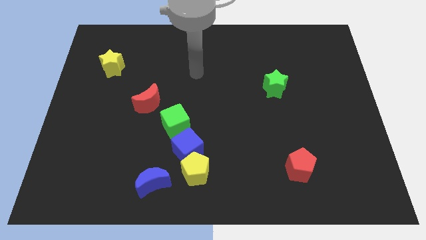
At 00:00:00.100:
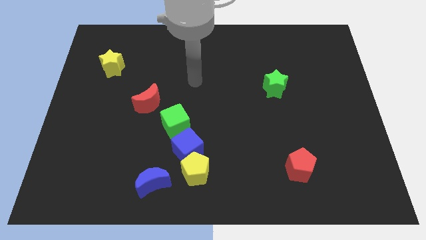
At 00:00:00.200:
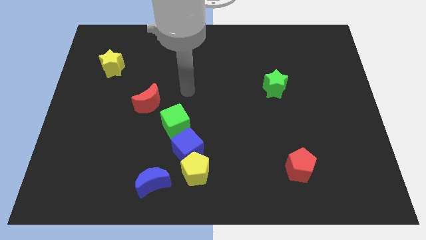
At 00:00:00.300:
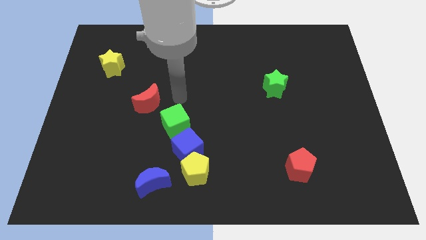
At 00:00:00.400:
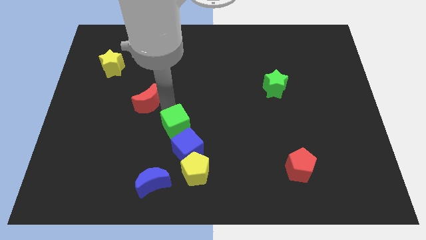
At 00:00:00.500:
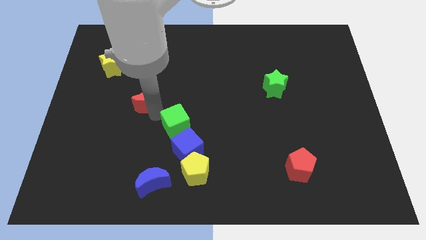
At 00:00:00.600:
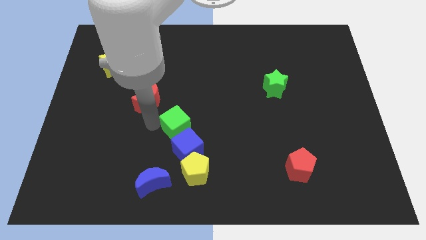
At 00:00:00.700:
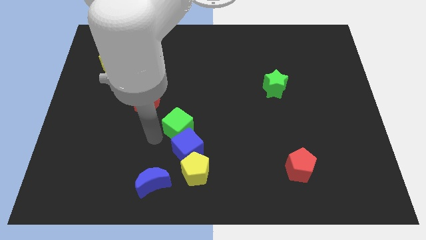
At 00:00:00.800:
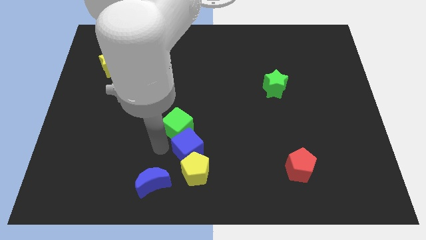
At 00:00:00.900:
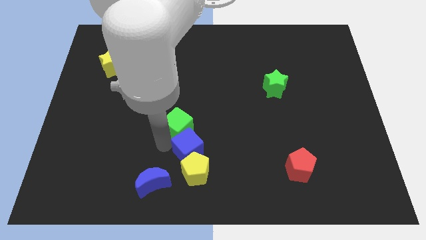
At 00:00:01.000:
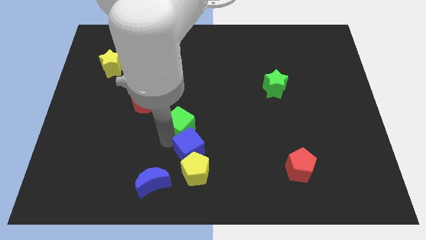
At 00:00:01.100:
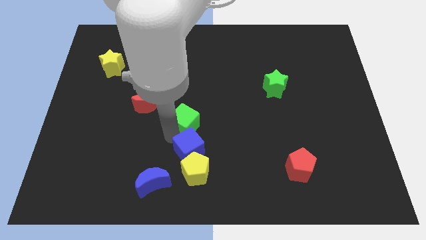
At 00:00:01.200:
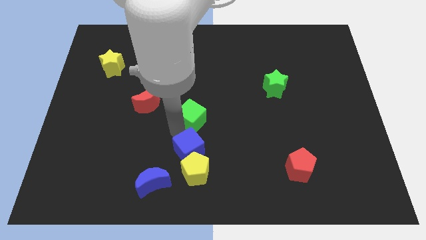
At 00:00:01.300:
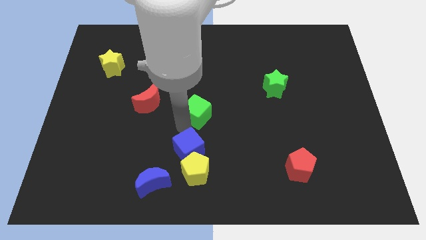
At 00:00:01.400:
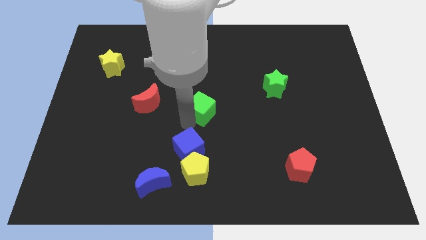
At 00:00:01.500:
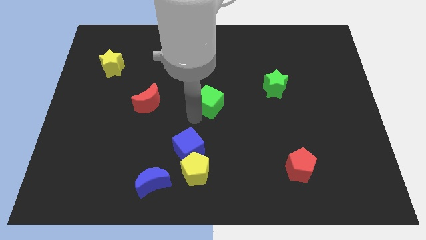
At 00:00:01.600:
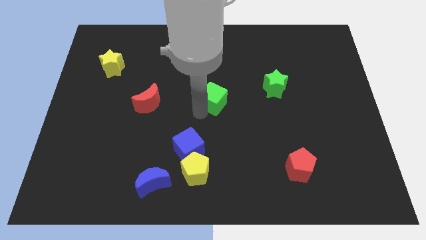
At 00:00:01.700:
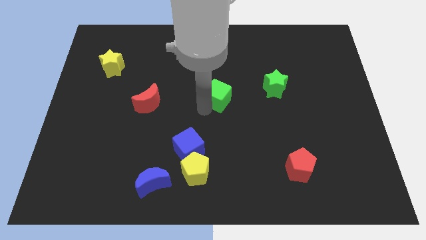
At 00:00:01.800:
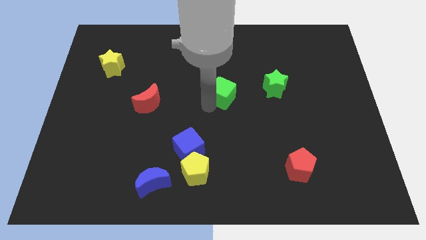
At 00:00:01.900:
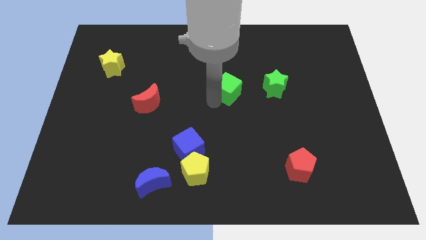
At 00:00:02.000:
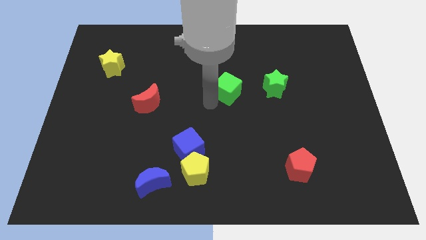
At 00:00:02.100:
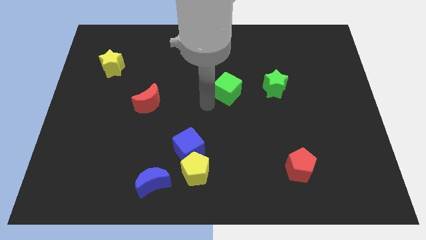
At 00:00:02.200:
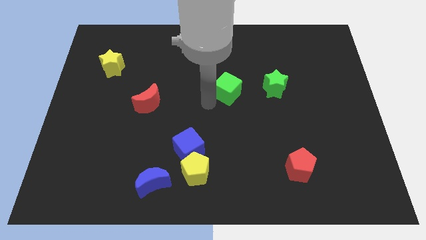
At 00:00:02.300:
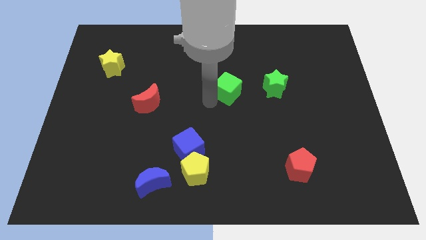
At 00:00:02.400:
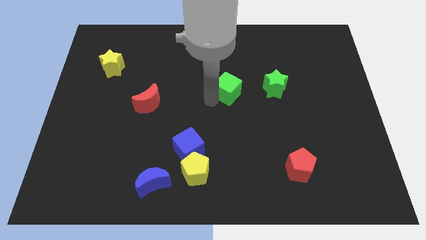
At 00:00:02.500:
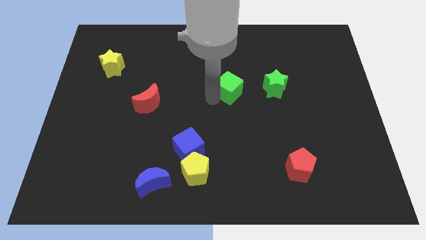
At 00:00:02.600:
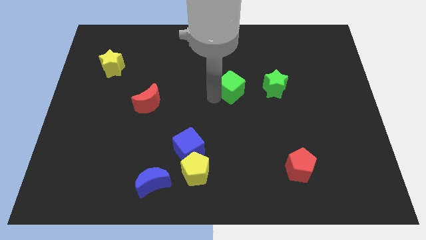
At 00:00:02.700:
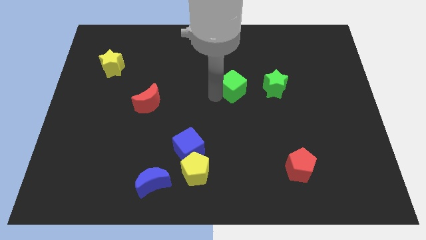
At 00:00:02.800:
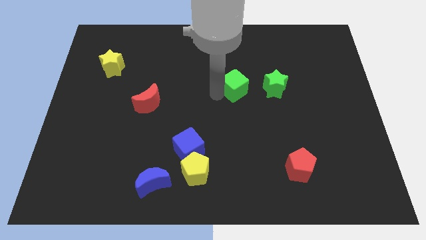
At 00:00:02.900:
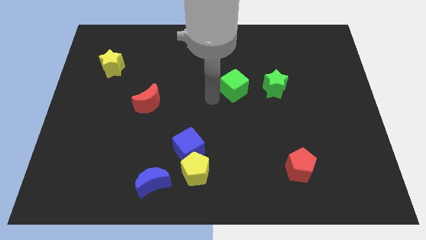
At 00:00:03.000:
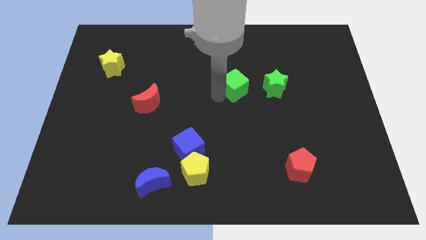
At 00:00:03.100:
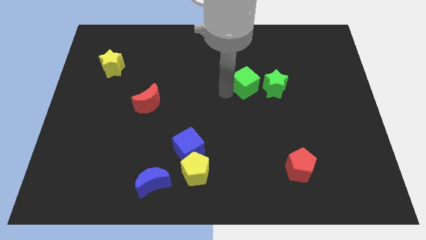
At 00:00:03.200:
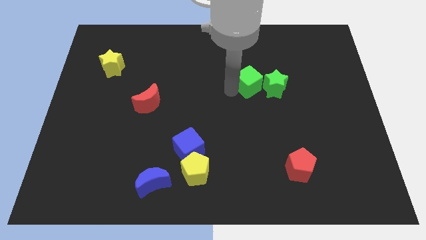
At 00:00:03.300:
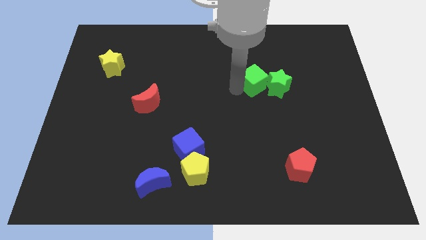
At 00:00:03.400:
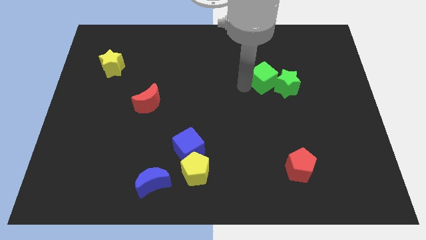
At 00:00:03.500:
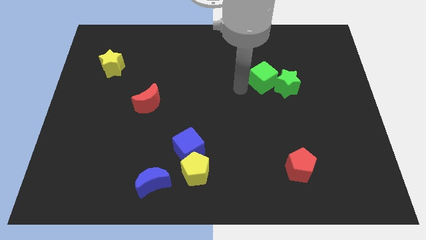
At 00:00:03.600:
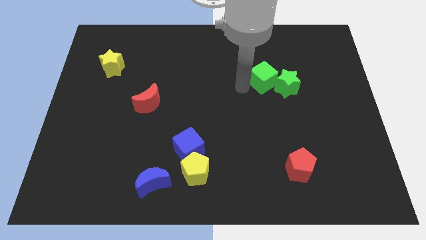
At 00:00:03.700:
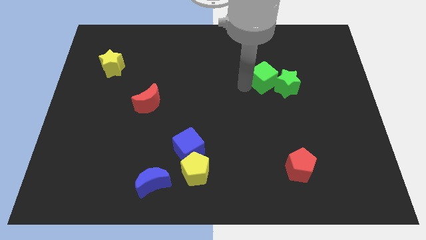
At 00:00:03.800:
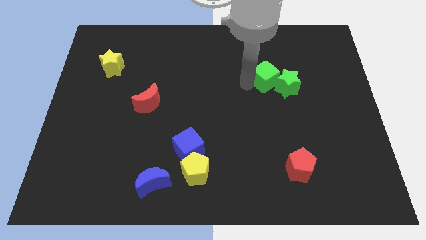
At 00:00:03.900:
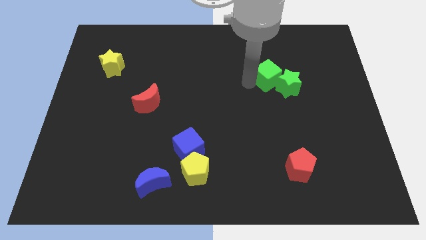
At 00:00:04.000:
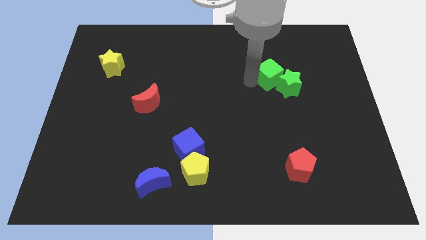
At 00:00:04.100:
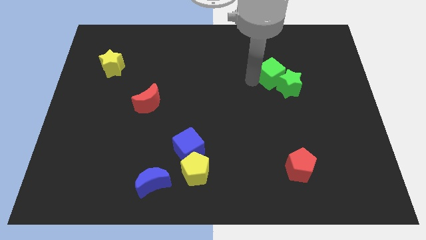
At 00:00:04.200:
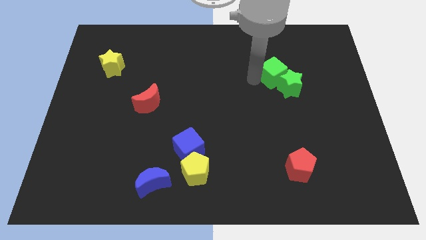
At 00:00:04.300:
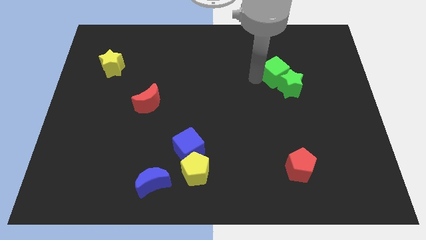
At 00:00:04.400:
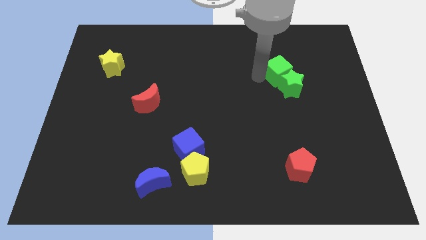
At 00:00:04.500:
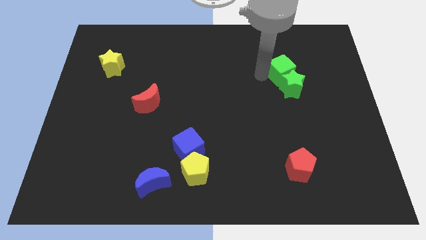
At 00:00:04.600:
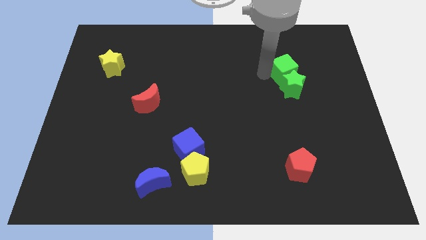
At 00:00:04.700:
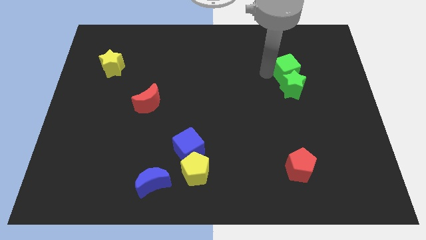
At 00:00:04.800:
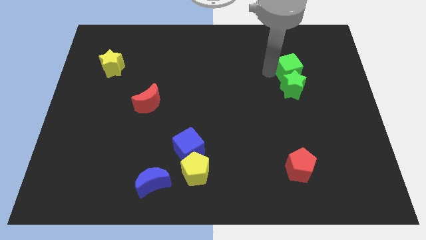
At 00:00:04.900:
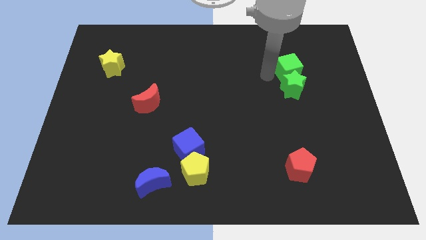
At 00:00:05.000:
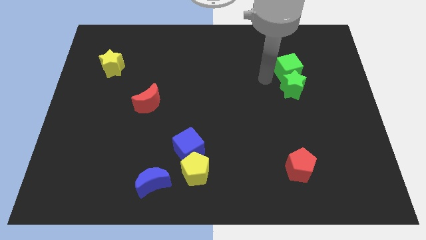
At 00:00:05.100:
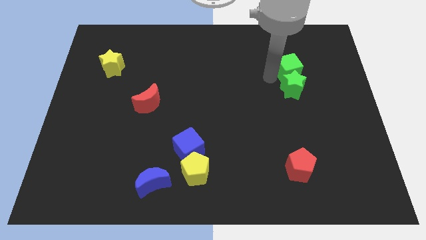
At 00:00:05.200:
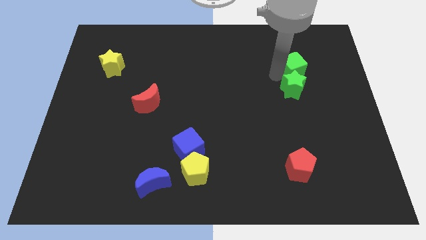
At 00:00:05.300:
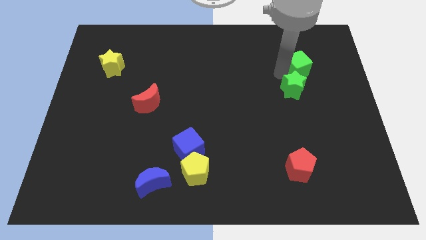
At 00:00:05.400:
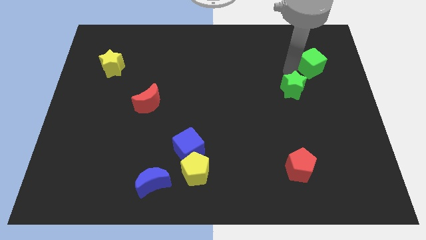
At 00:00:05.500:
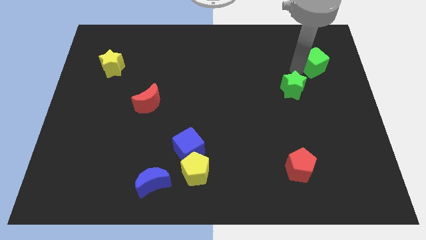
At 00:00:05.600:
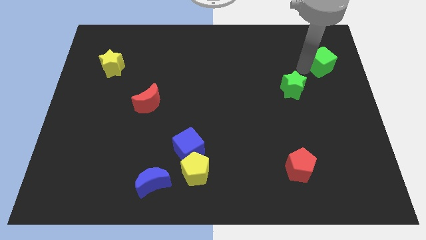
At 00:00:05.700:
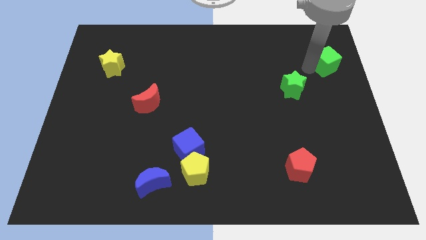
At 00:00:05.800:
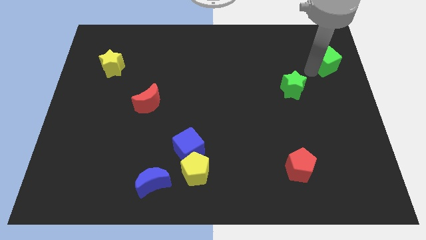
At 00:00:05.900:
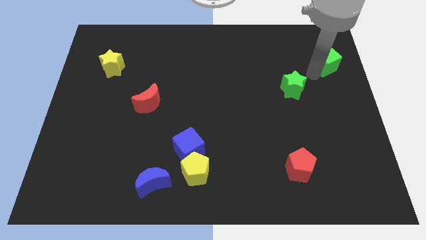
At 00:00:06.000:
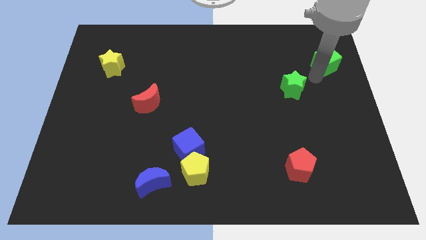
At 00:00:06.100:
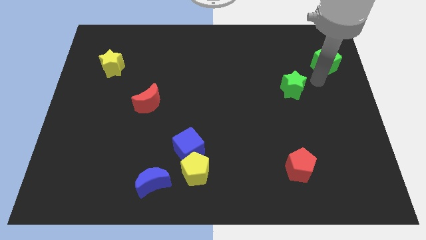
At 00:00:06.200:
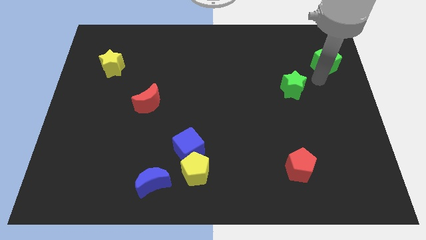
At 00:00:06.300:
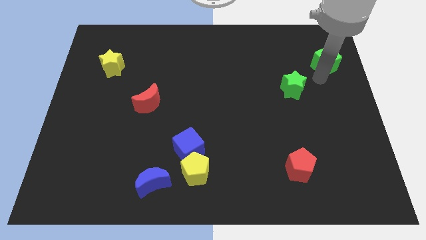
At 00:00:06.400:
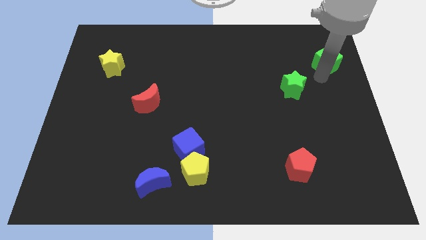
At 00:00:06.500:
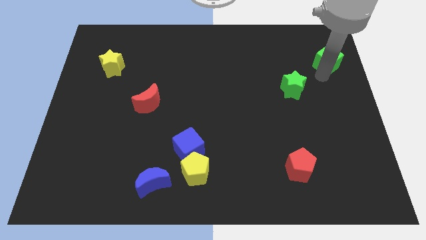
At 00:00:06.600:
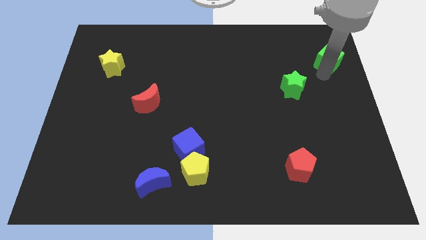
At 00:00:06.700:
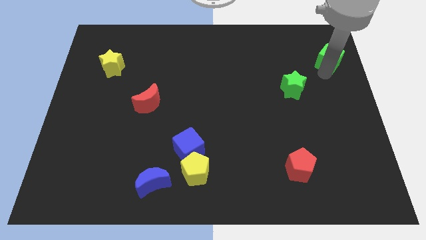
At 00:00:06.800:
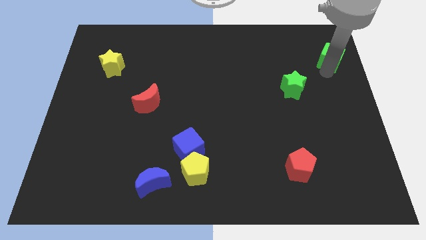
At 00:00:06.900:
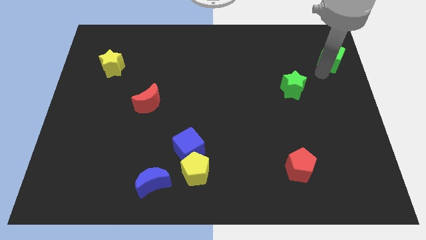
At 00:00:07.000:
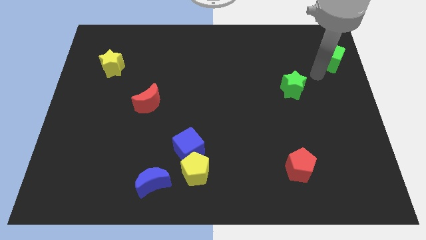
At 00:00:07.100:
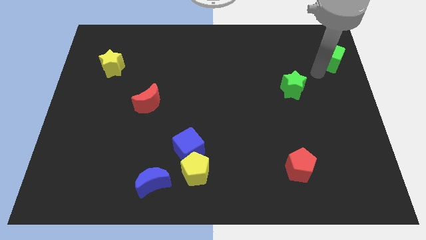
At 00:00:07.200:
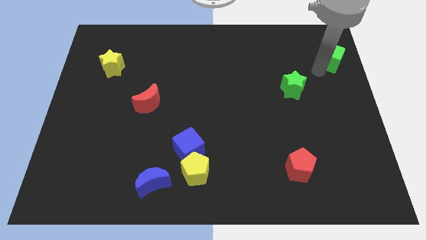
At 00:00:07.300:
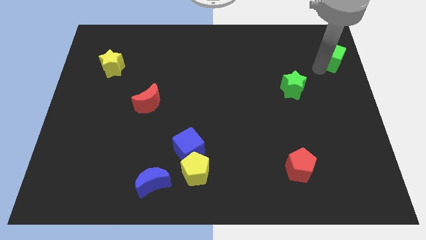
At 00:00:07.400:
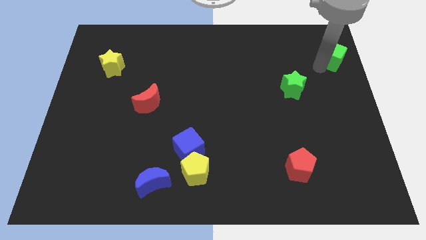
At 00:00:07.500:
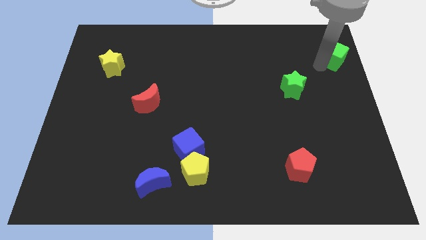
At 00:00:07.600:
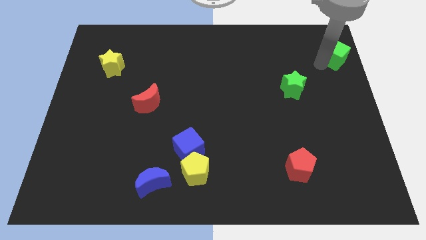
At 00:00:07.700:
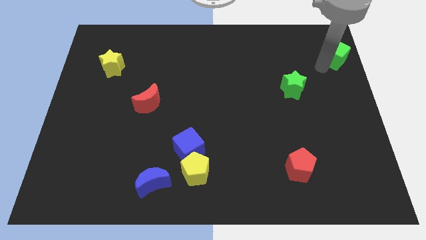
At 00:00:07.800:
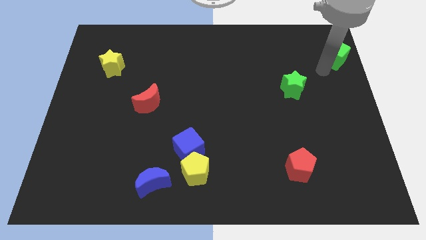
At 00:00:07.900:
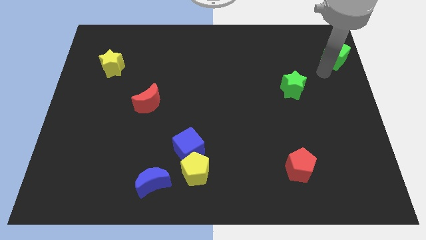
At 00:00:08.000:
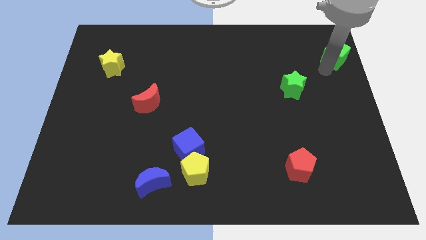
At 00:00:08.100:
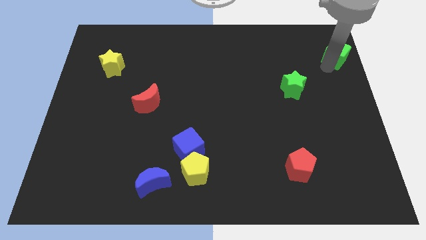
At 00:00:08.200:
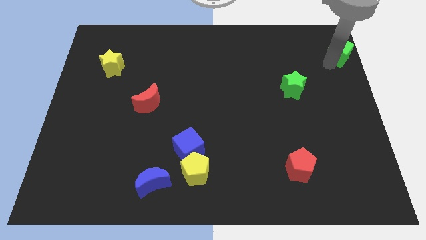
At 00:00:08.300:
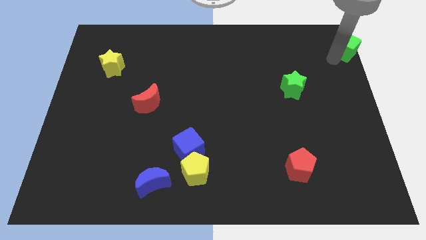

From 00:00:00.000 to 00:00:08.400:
put the green cube to the top right corner
